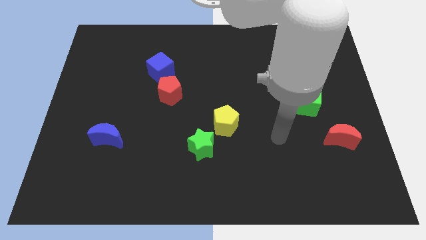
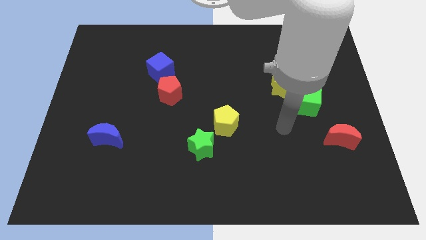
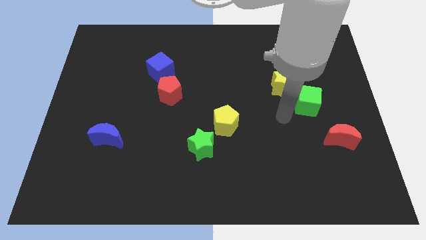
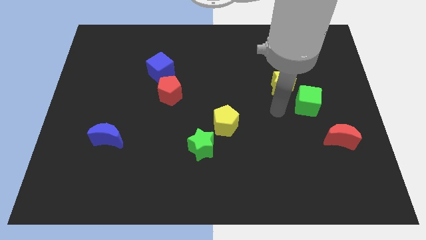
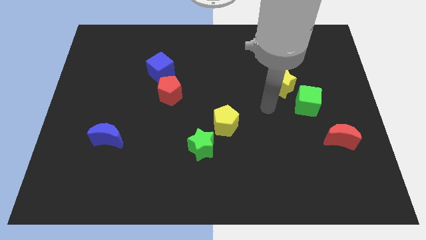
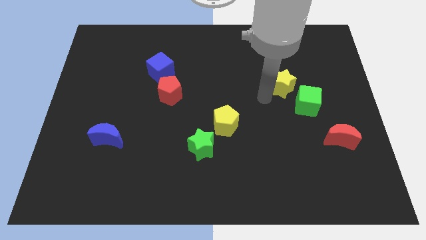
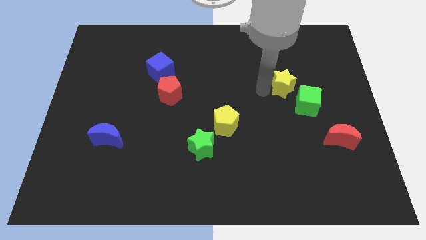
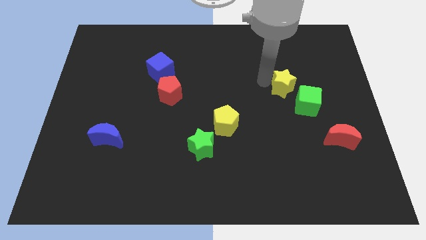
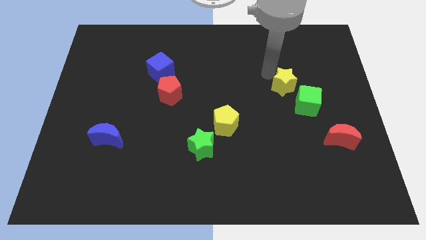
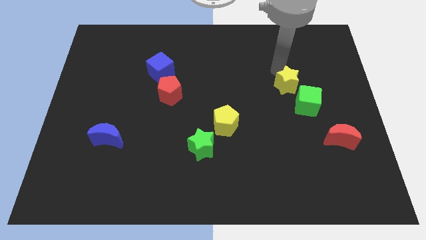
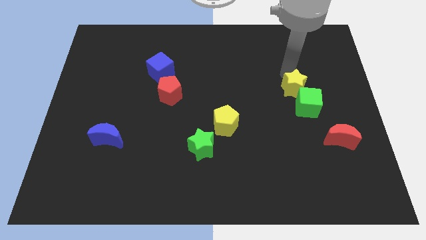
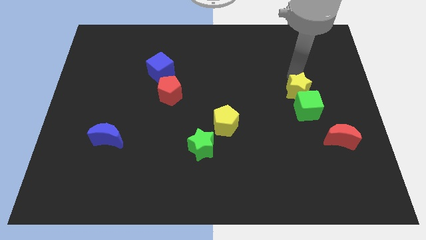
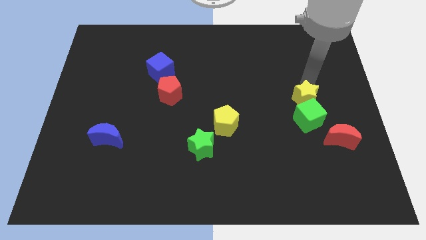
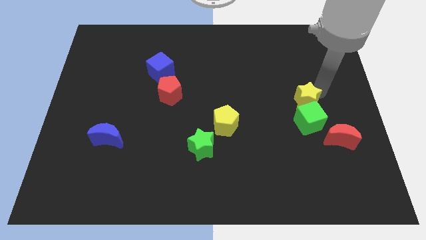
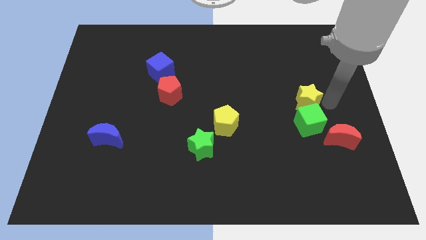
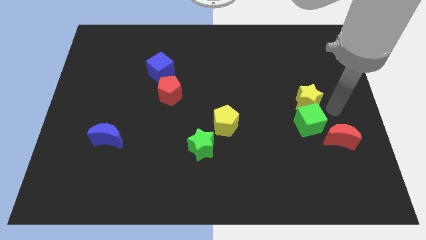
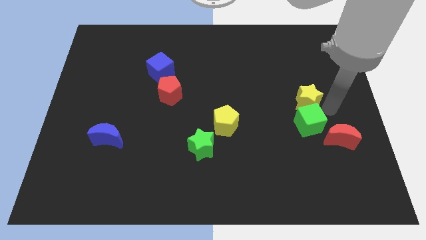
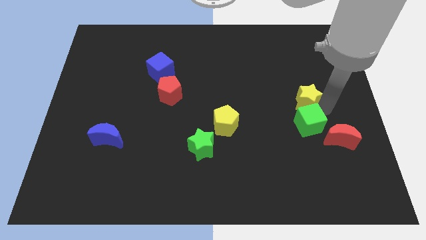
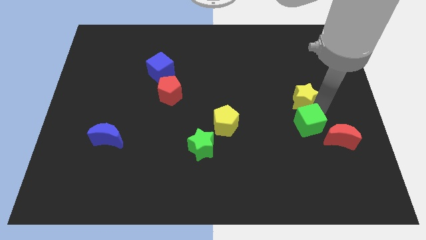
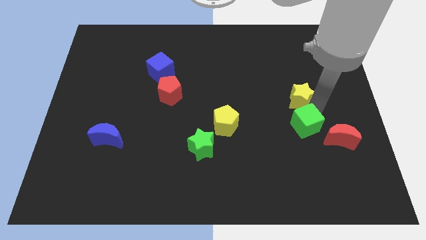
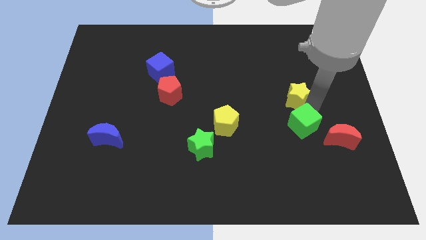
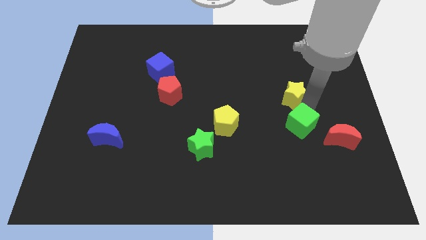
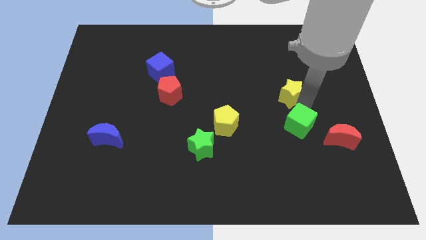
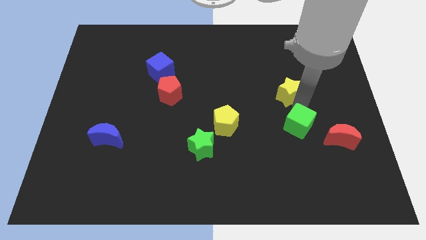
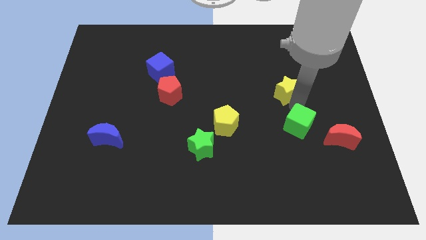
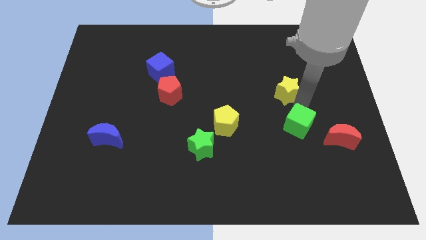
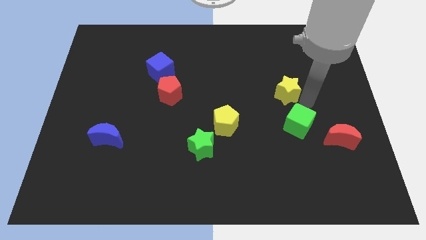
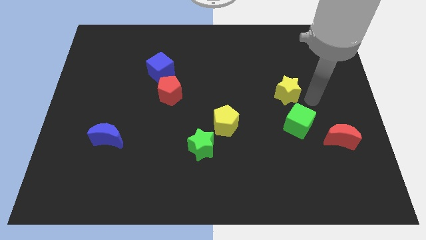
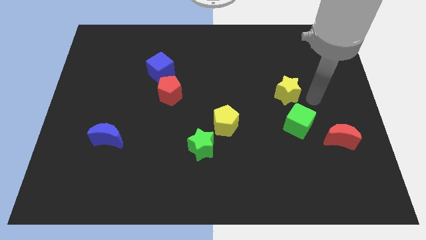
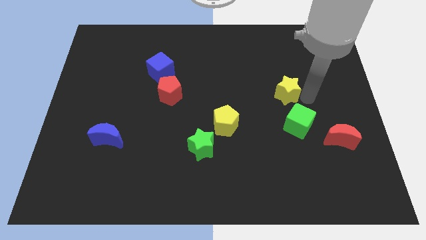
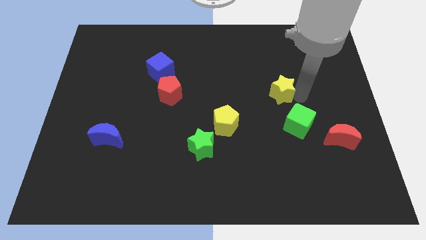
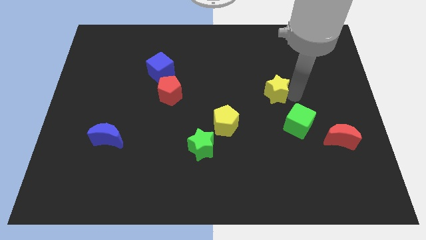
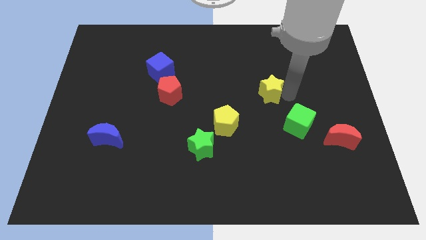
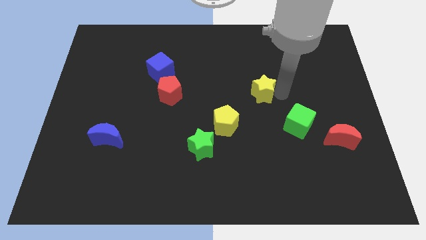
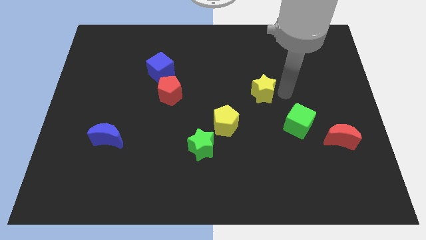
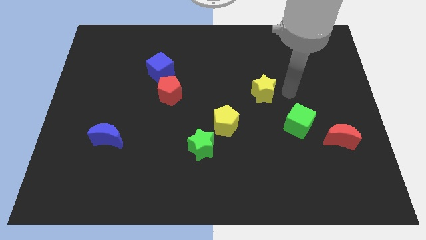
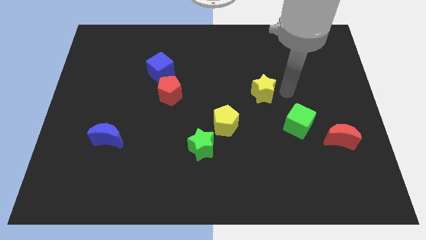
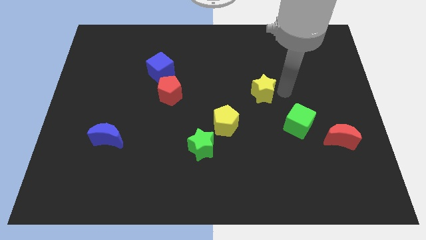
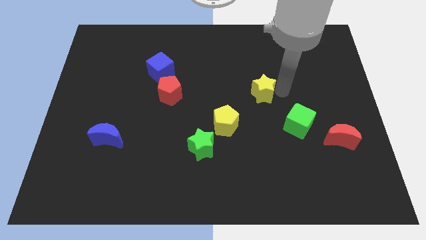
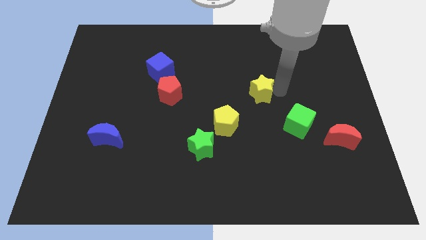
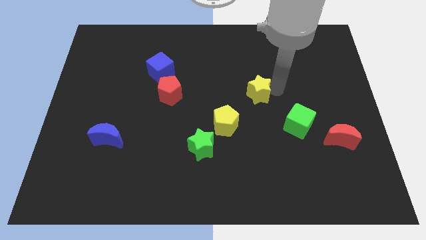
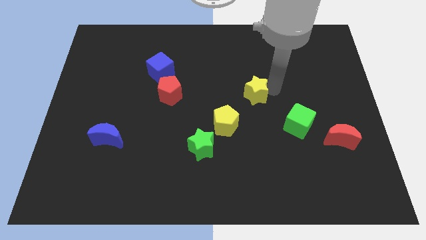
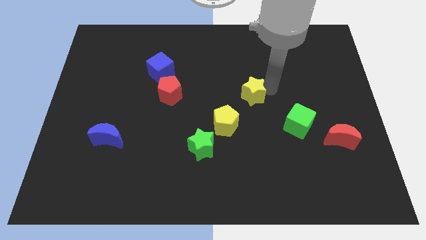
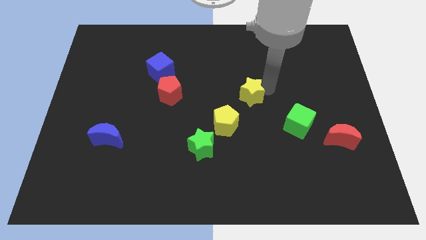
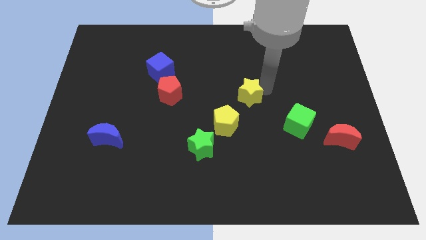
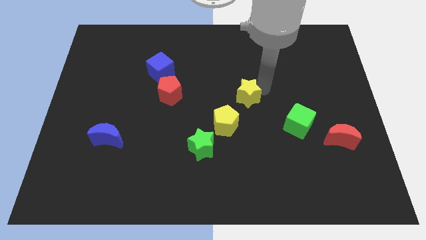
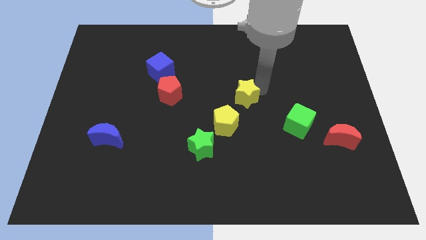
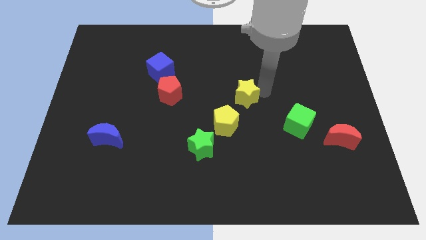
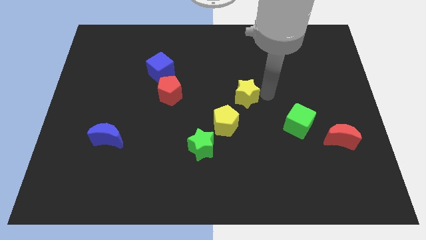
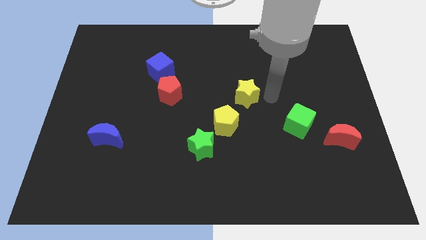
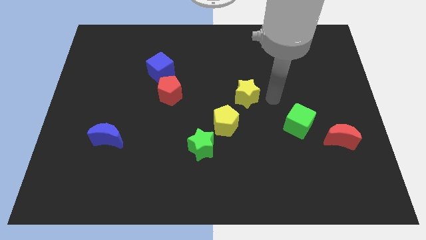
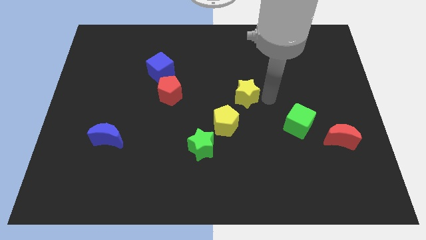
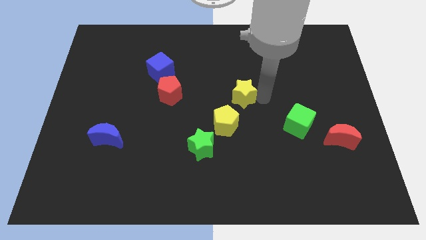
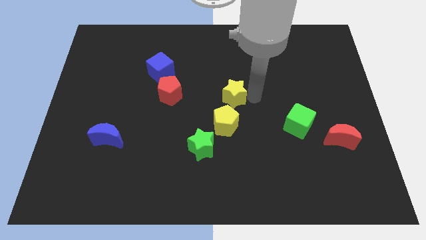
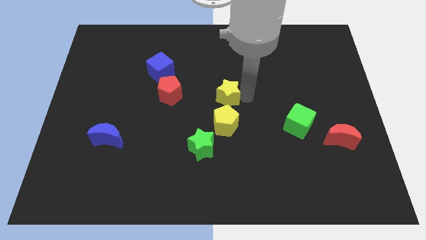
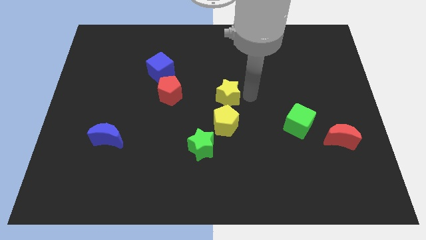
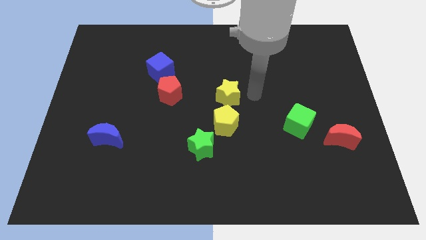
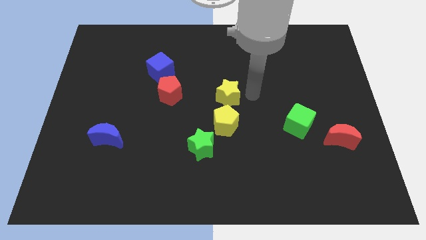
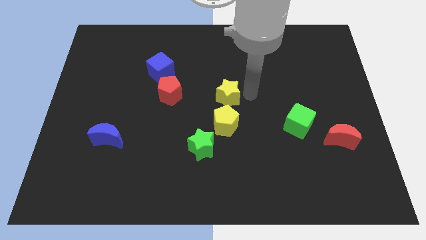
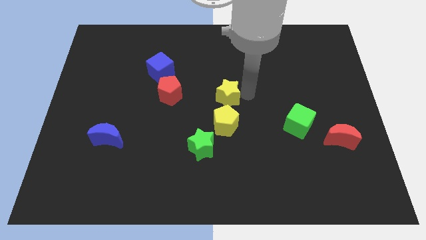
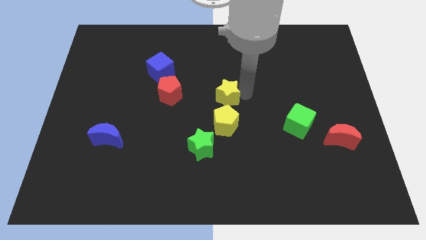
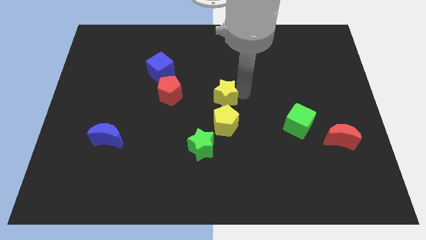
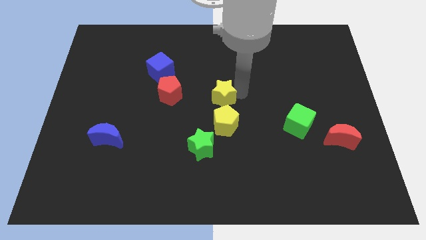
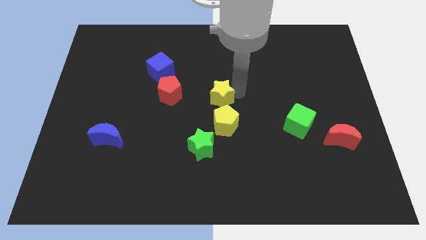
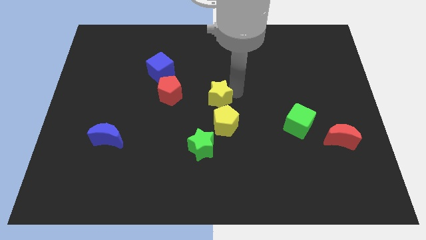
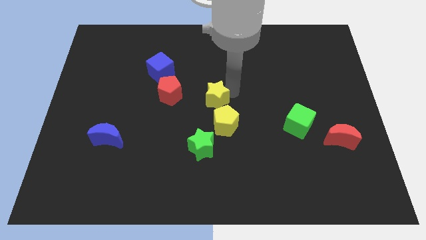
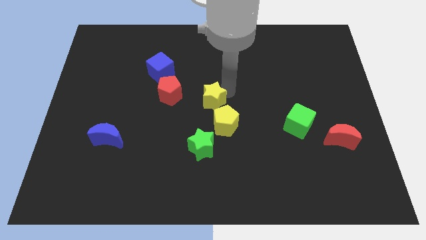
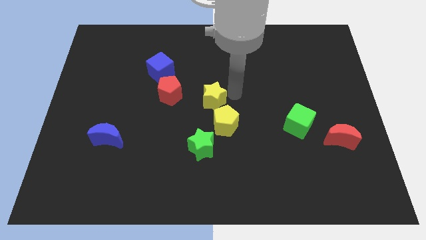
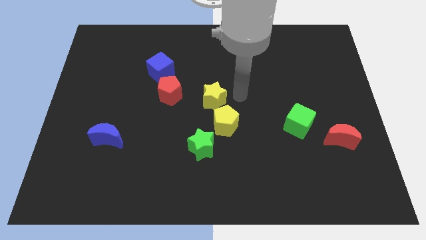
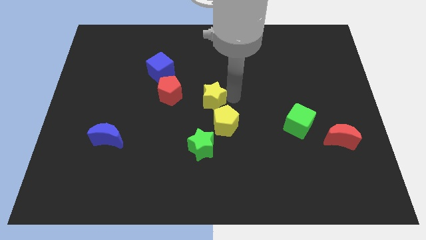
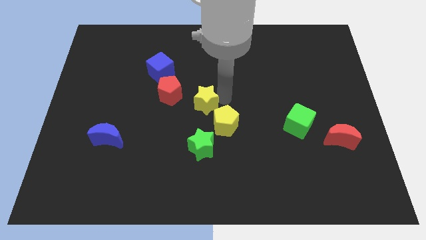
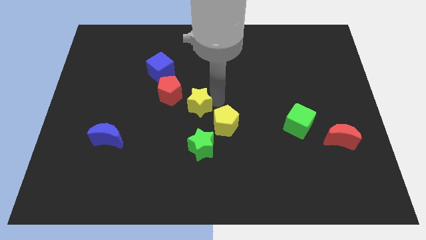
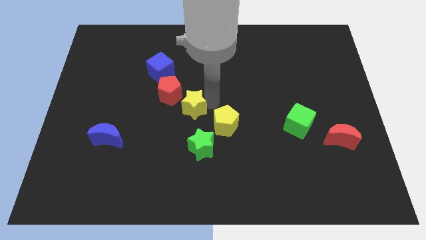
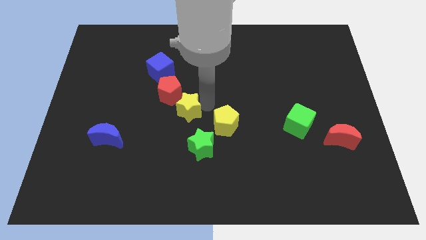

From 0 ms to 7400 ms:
push the yellow star left

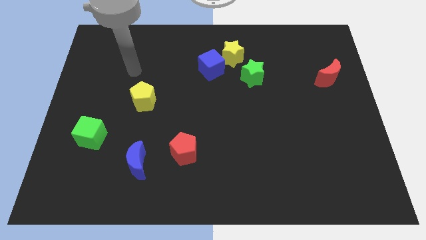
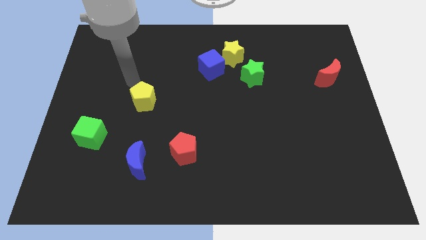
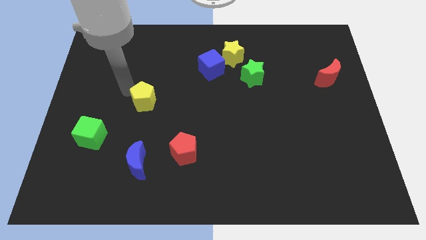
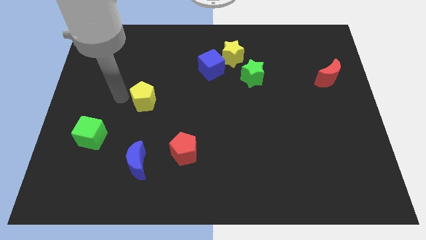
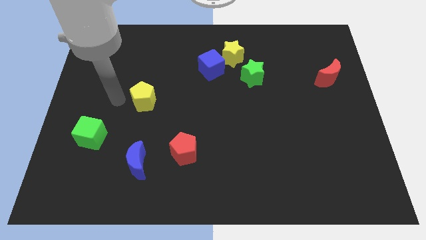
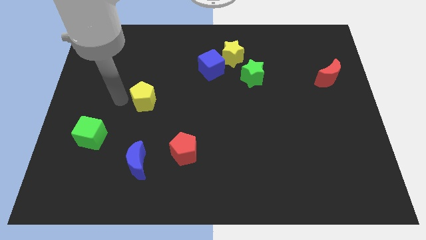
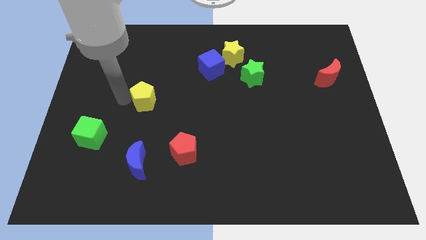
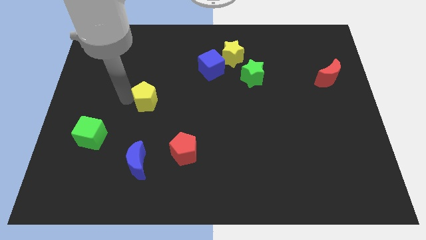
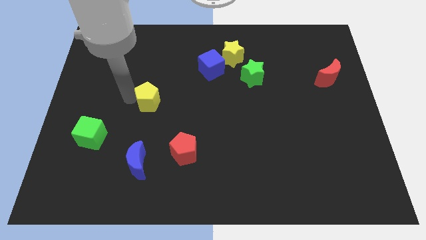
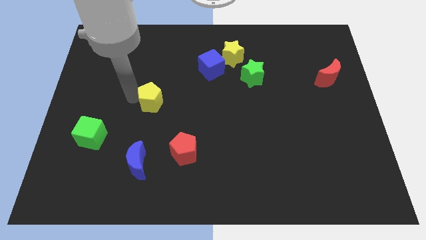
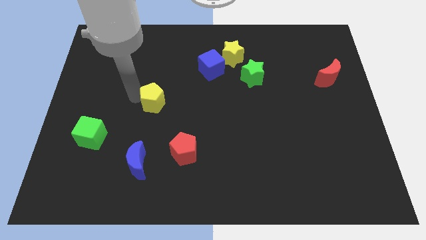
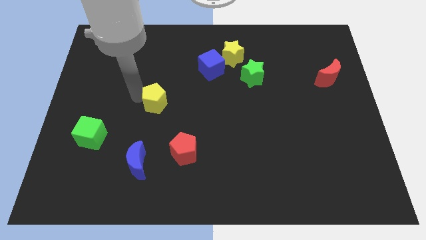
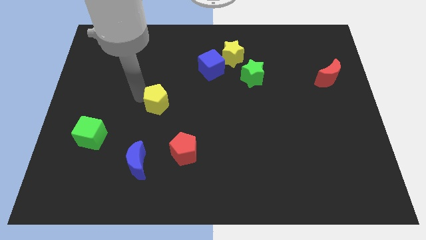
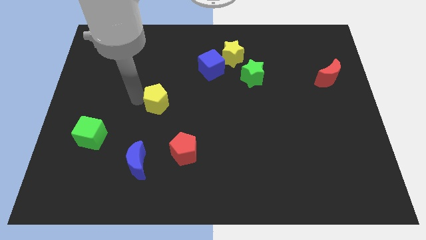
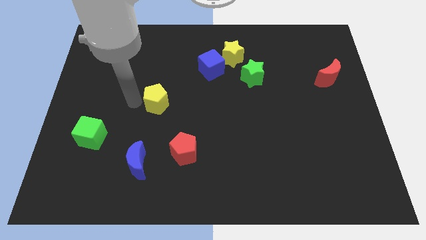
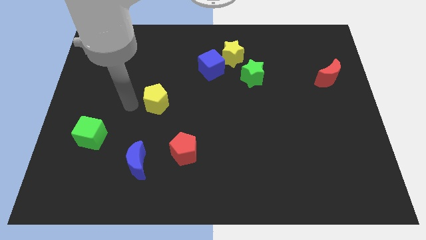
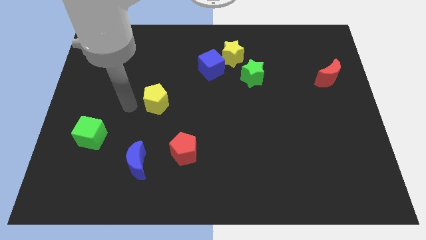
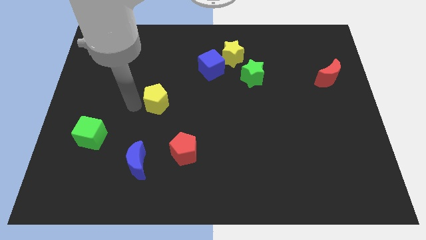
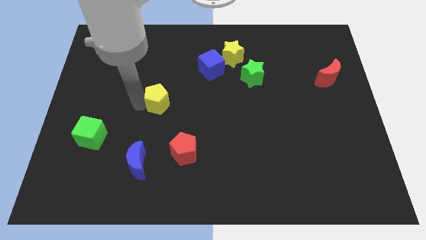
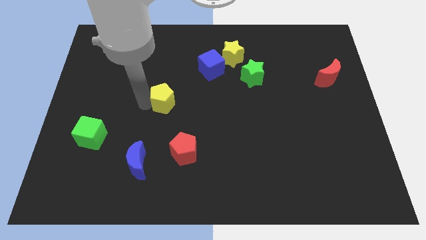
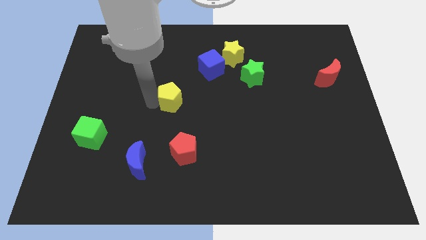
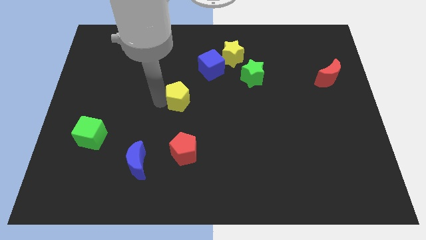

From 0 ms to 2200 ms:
slightly push the yellow pentagon right
